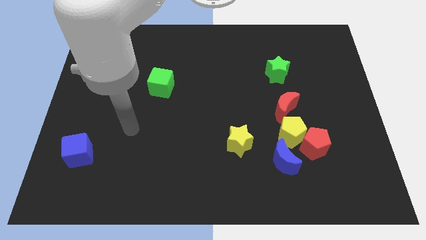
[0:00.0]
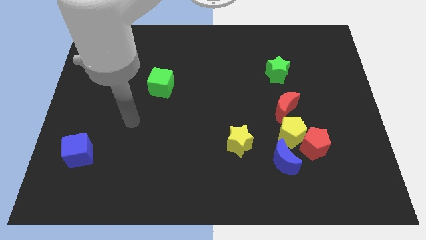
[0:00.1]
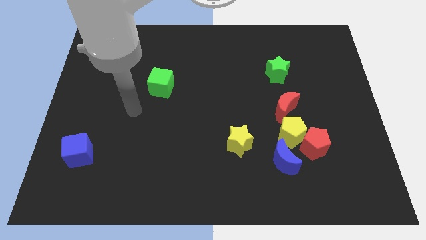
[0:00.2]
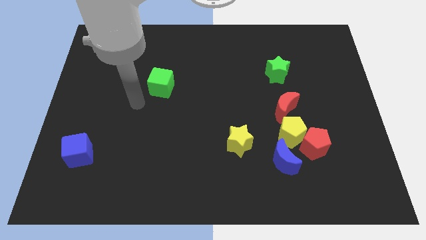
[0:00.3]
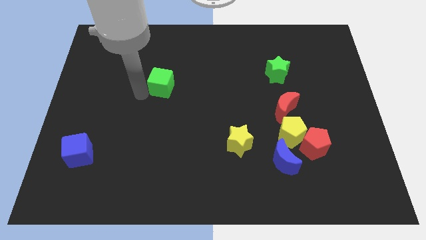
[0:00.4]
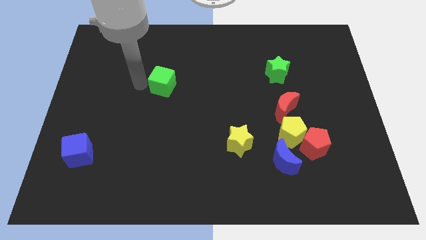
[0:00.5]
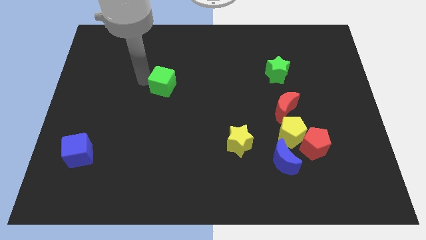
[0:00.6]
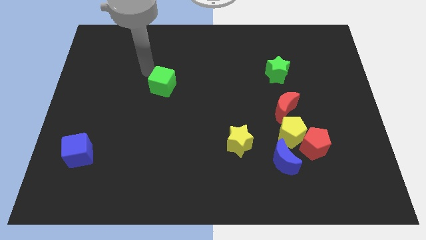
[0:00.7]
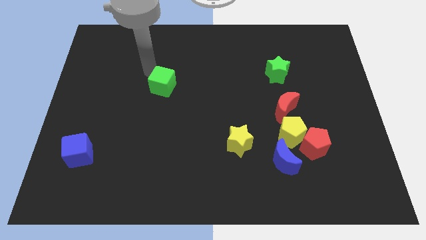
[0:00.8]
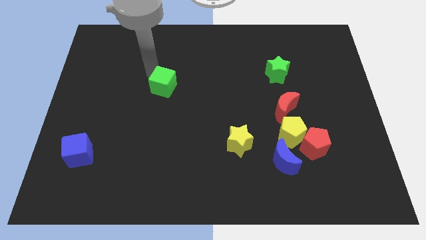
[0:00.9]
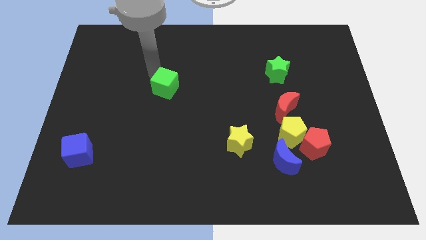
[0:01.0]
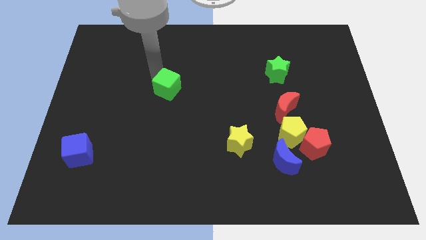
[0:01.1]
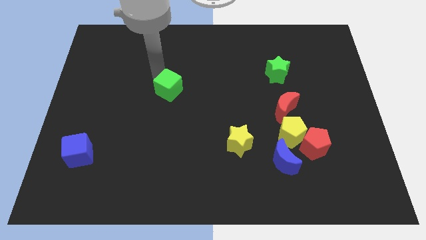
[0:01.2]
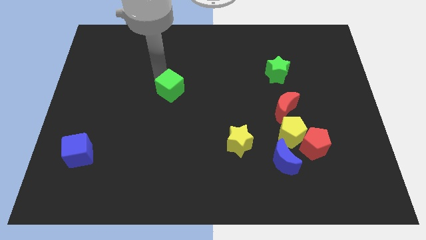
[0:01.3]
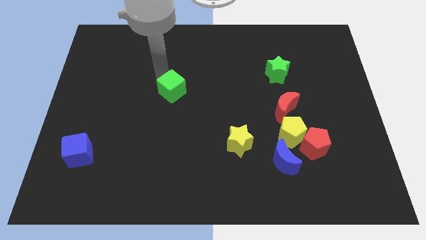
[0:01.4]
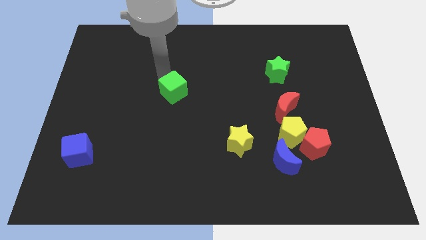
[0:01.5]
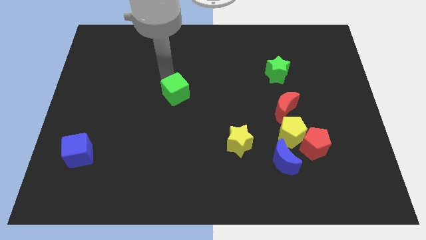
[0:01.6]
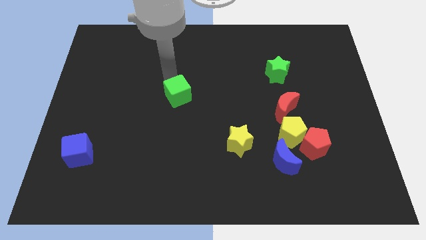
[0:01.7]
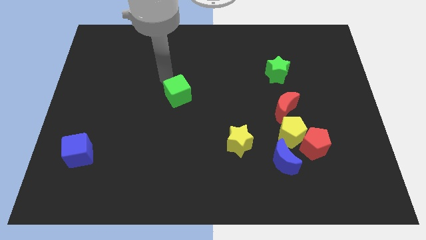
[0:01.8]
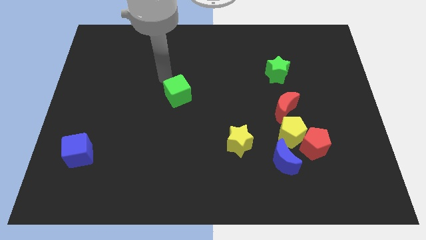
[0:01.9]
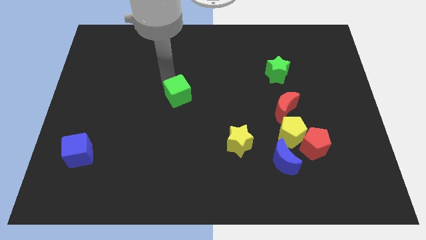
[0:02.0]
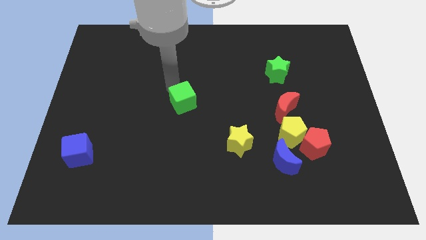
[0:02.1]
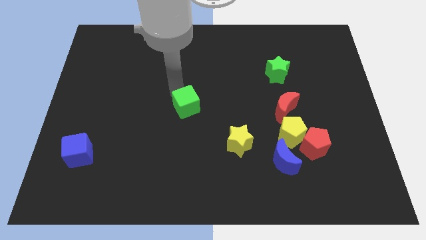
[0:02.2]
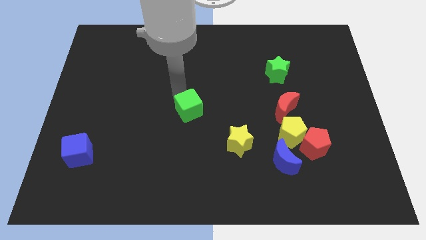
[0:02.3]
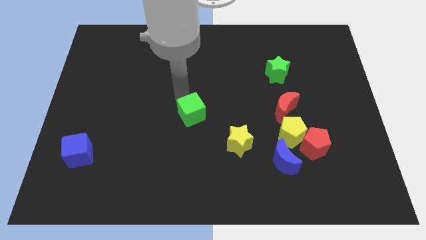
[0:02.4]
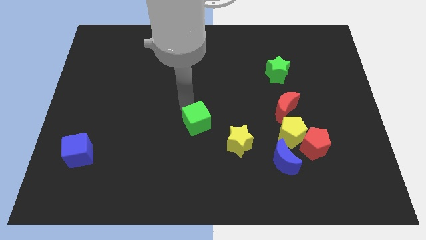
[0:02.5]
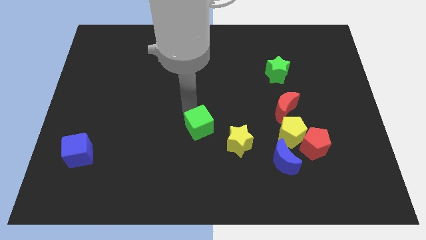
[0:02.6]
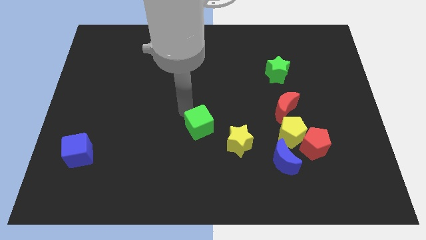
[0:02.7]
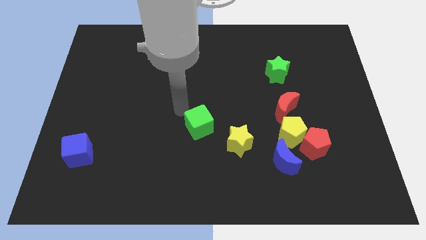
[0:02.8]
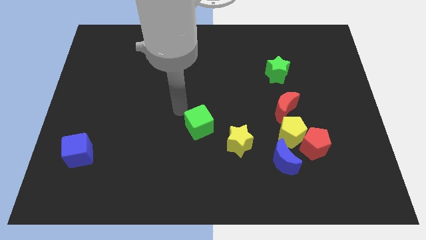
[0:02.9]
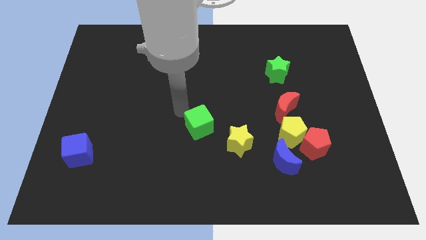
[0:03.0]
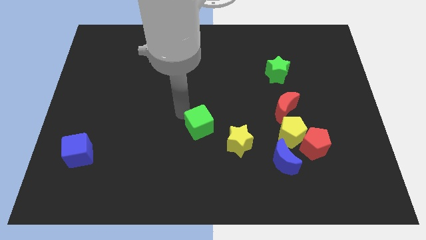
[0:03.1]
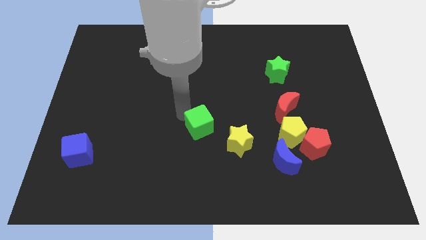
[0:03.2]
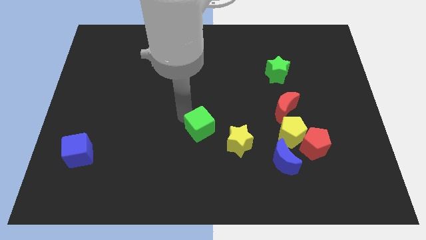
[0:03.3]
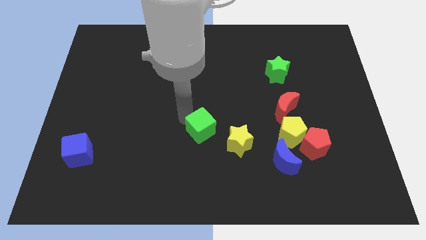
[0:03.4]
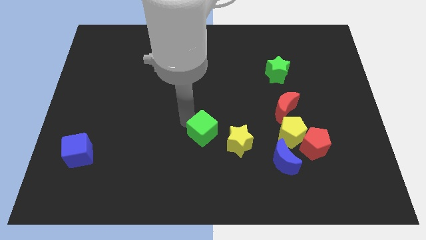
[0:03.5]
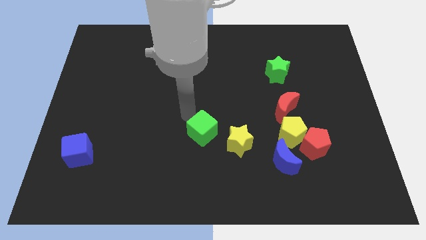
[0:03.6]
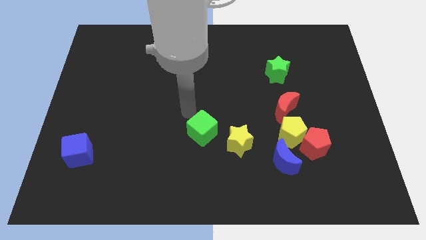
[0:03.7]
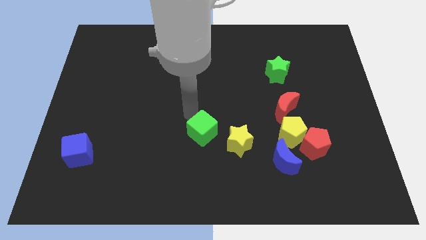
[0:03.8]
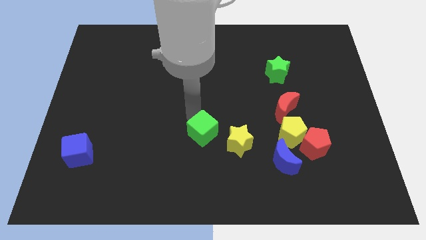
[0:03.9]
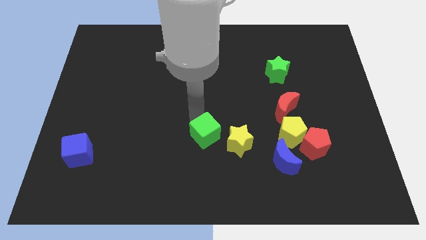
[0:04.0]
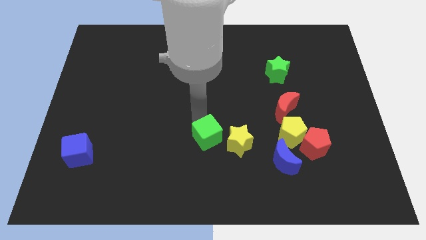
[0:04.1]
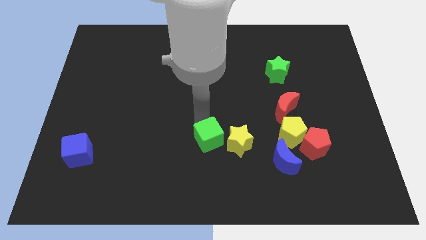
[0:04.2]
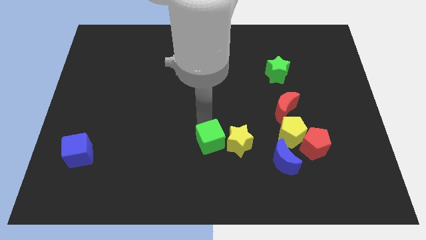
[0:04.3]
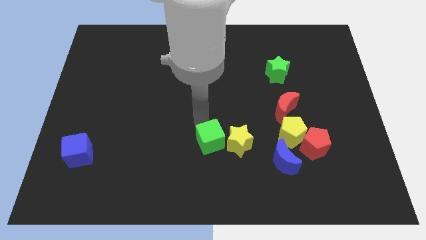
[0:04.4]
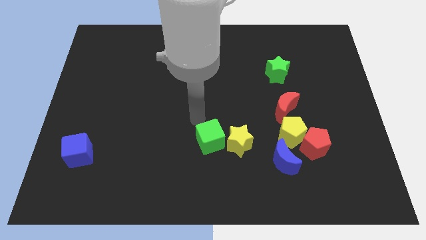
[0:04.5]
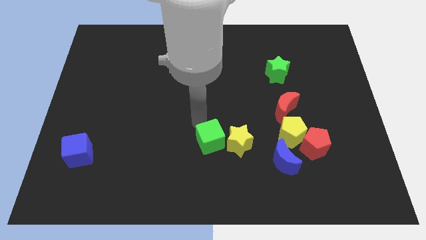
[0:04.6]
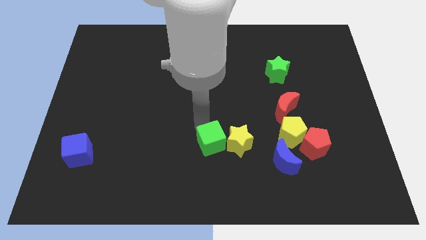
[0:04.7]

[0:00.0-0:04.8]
slide the green cube down and to the right

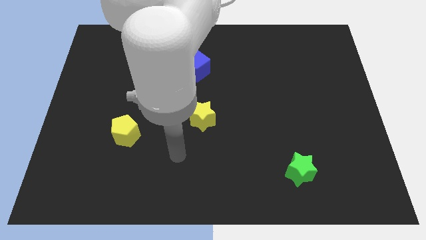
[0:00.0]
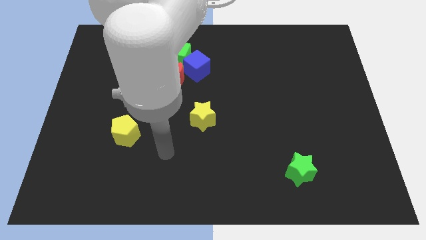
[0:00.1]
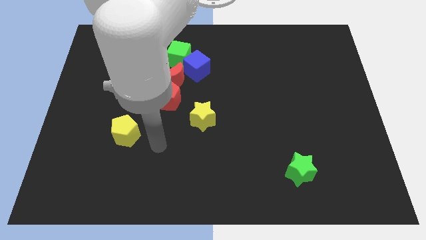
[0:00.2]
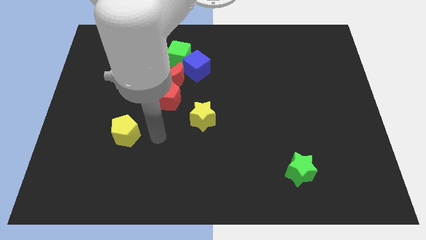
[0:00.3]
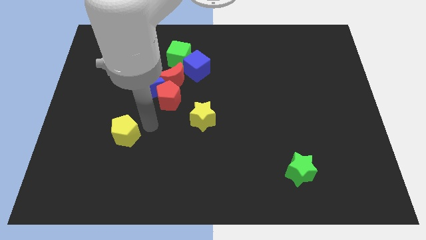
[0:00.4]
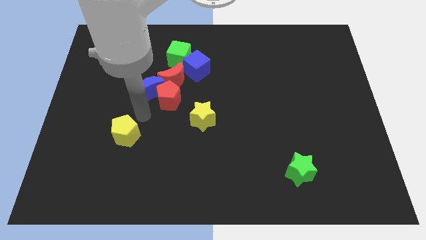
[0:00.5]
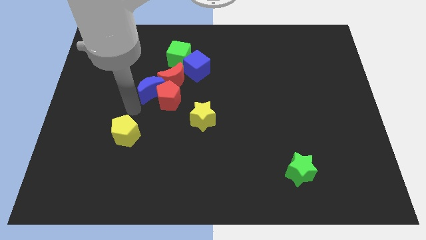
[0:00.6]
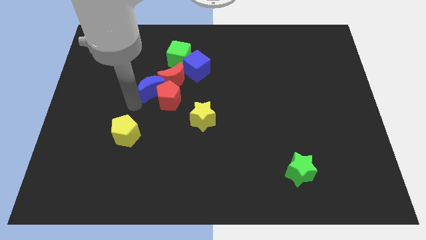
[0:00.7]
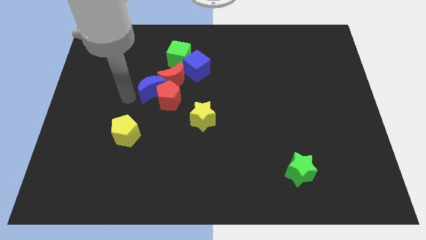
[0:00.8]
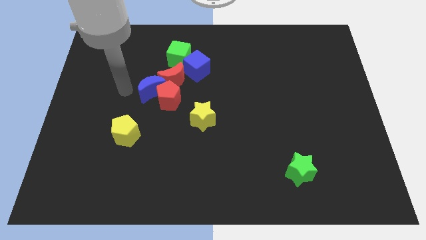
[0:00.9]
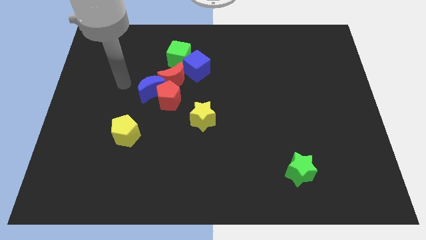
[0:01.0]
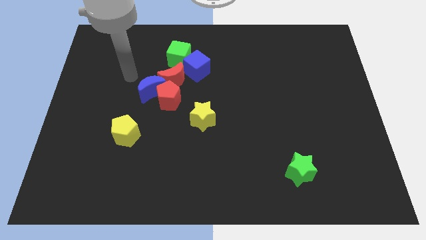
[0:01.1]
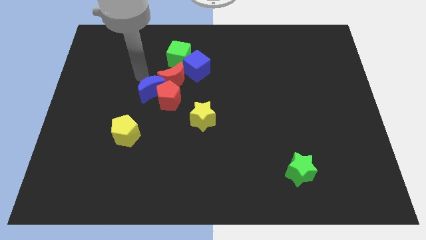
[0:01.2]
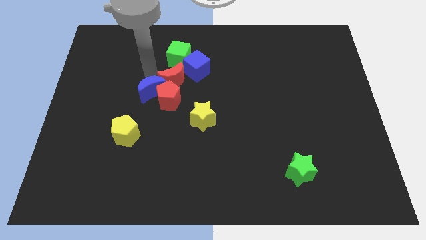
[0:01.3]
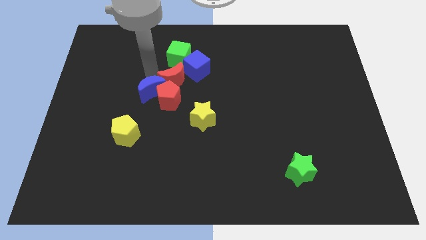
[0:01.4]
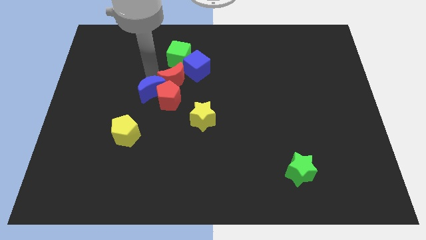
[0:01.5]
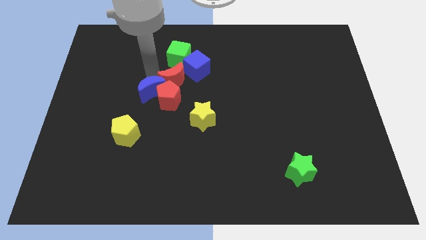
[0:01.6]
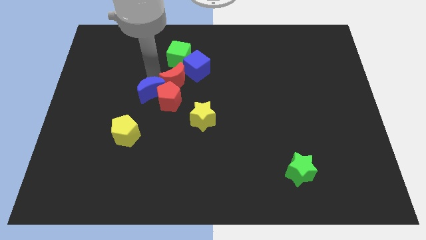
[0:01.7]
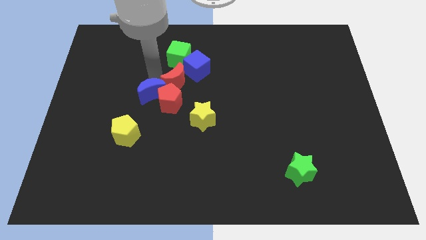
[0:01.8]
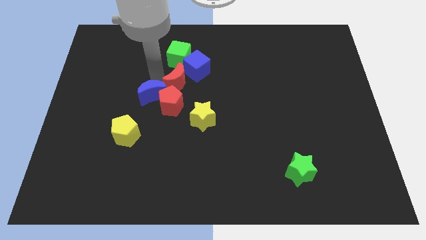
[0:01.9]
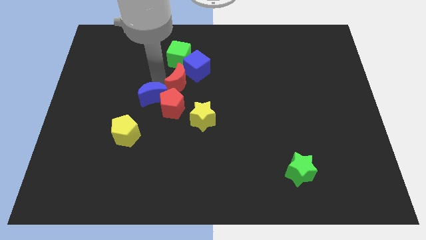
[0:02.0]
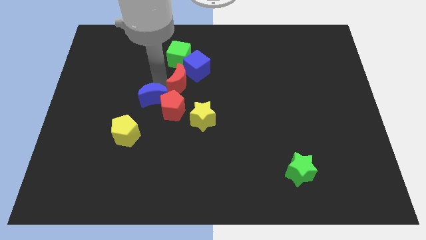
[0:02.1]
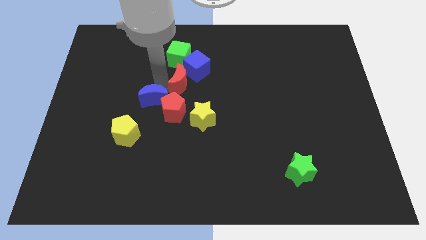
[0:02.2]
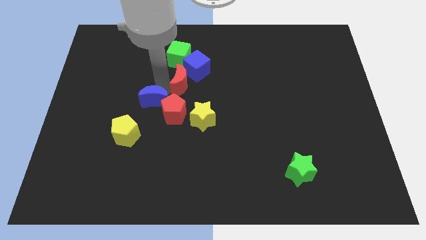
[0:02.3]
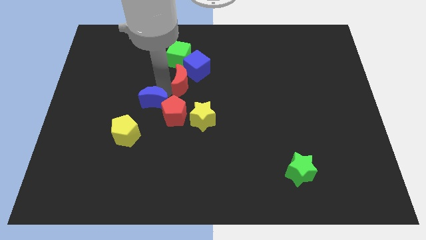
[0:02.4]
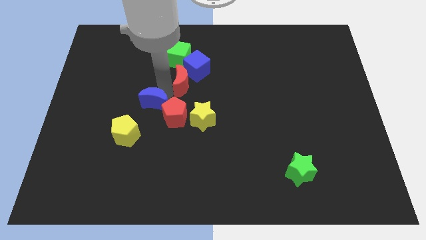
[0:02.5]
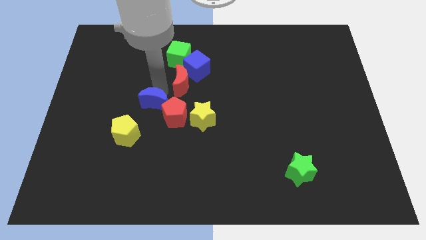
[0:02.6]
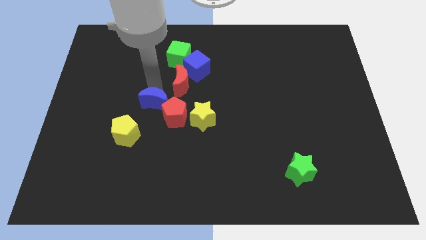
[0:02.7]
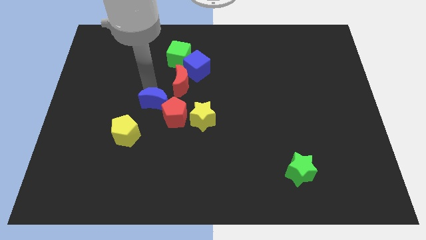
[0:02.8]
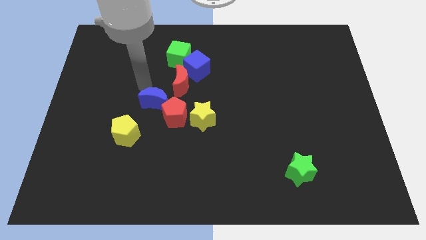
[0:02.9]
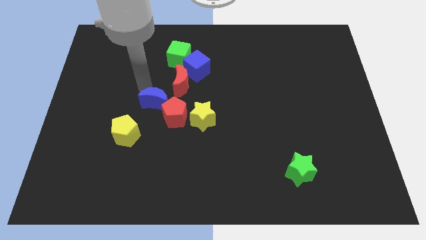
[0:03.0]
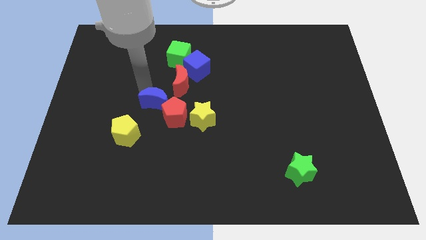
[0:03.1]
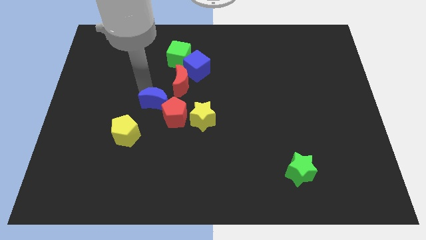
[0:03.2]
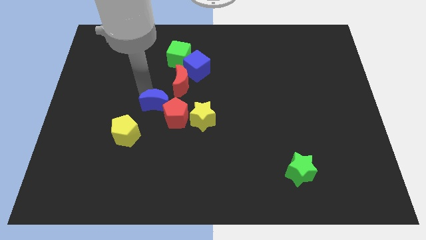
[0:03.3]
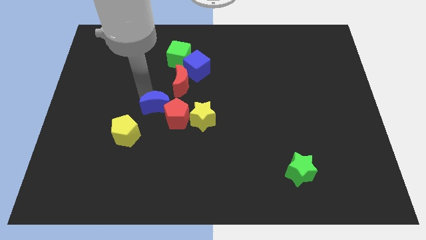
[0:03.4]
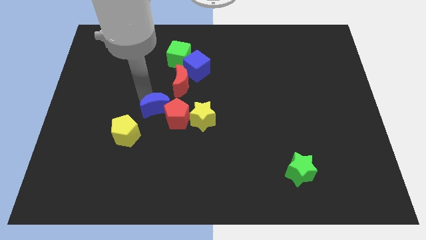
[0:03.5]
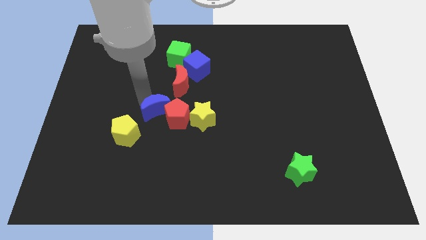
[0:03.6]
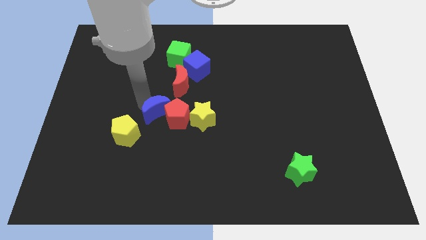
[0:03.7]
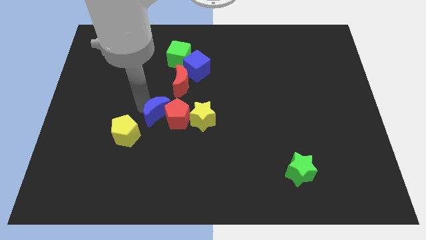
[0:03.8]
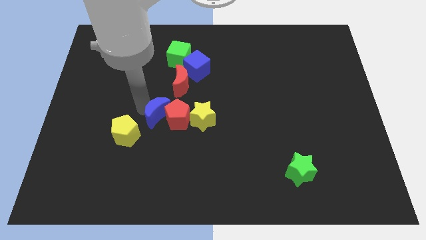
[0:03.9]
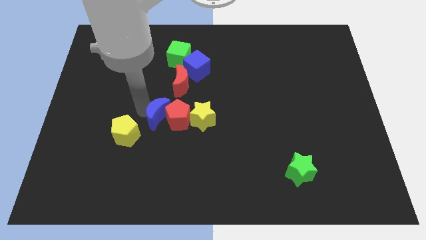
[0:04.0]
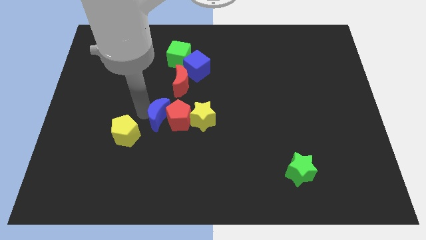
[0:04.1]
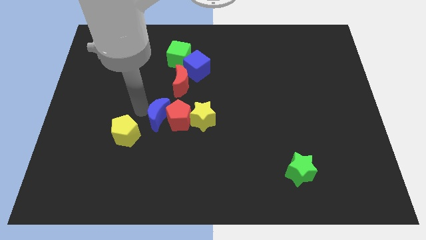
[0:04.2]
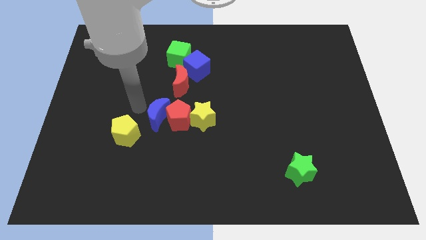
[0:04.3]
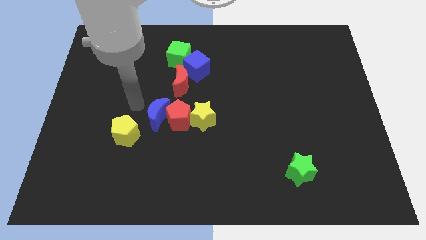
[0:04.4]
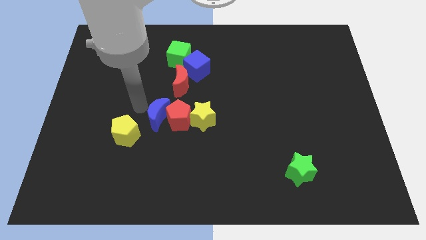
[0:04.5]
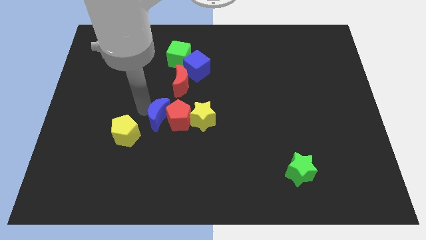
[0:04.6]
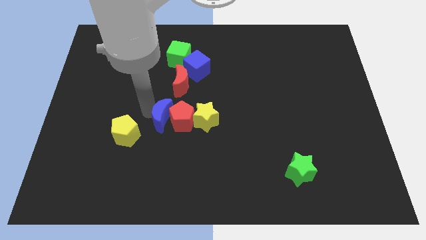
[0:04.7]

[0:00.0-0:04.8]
slightly push the blue moon diagonally downwards and to the right
